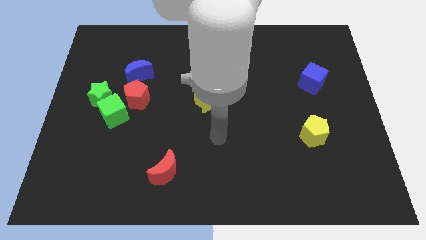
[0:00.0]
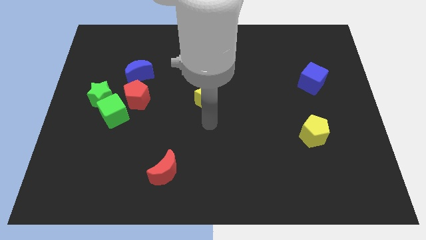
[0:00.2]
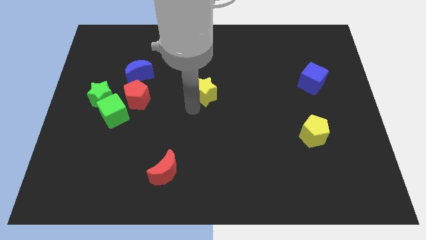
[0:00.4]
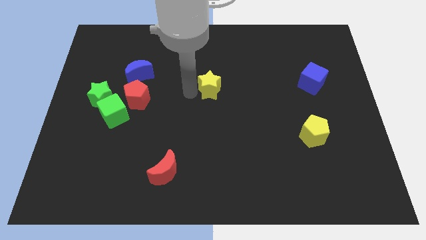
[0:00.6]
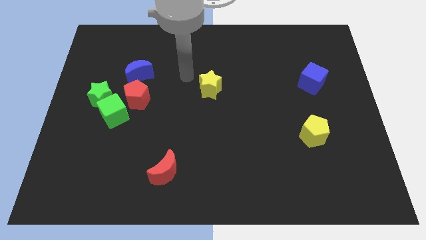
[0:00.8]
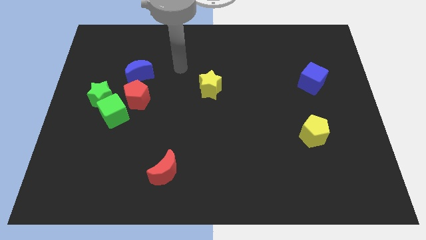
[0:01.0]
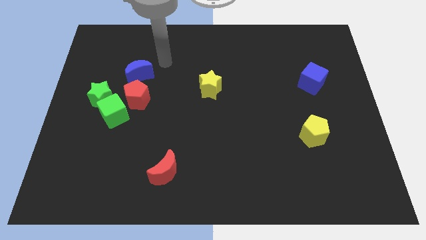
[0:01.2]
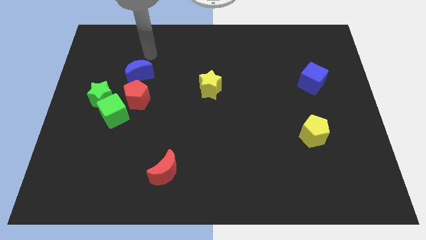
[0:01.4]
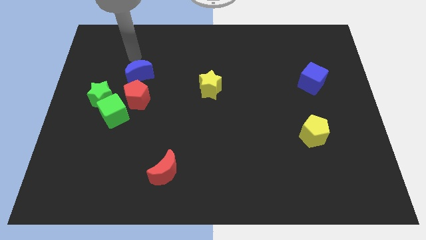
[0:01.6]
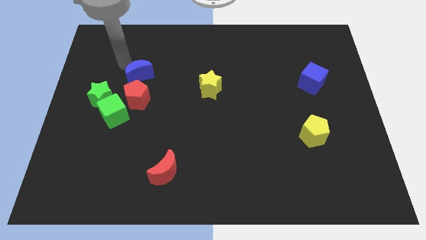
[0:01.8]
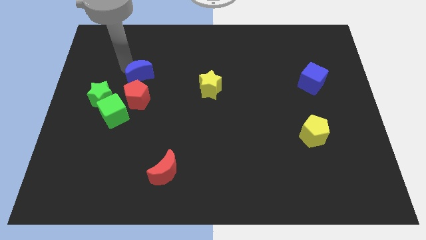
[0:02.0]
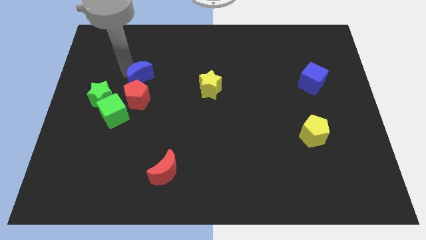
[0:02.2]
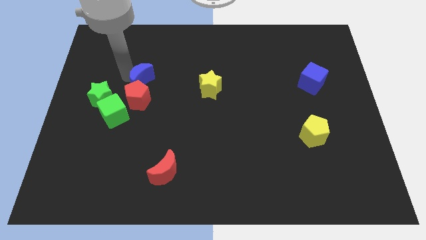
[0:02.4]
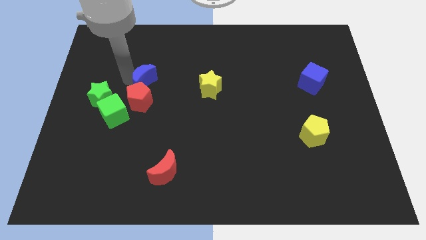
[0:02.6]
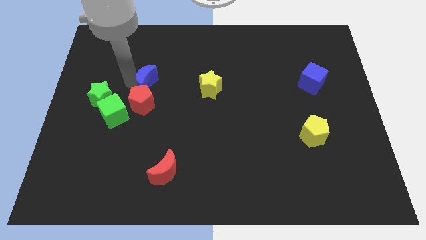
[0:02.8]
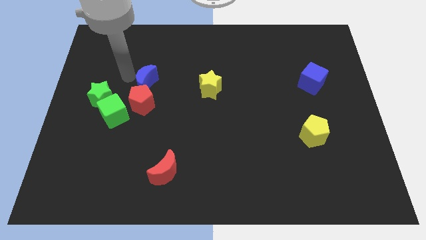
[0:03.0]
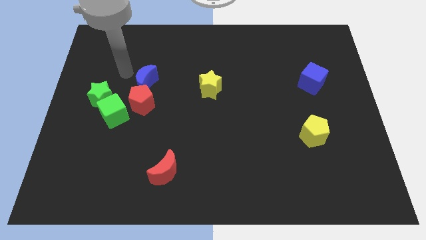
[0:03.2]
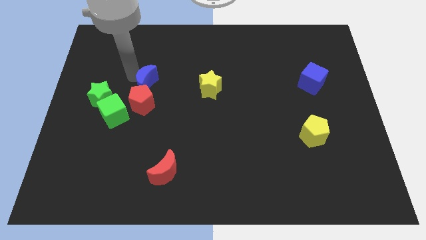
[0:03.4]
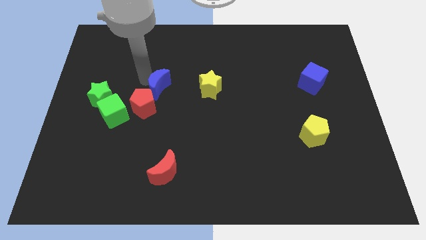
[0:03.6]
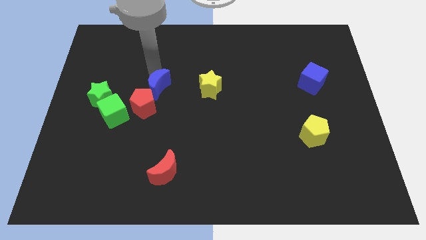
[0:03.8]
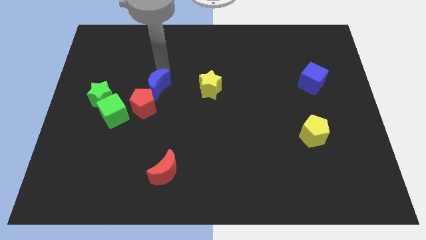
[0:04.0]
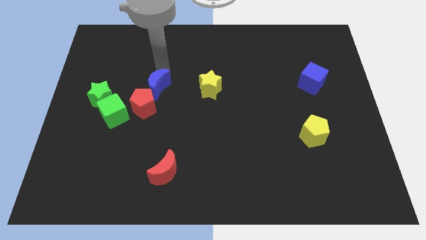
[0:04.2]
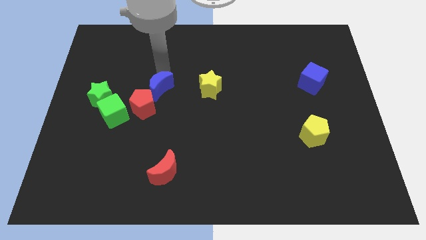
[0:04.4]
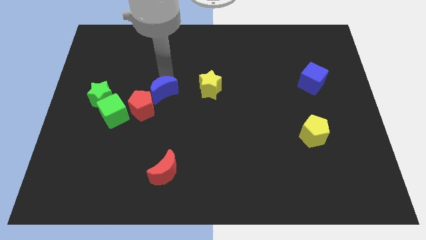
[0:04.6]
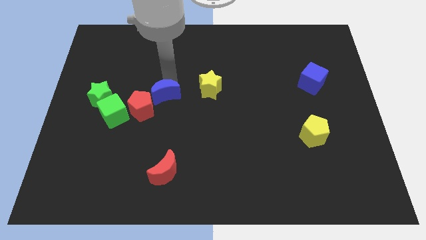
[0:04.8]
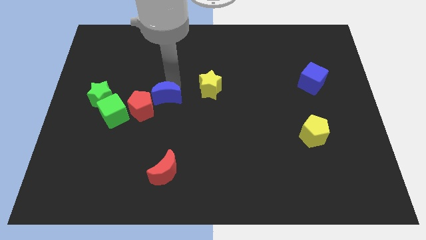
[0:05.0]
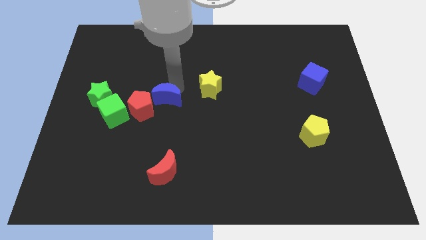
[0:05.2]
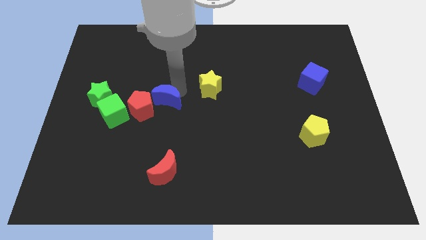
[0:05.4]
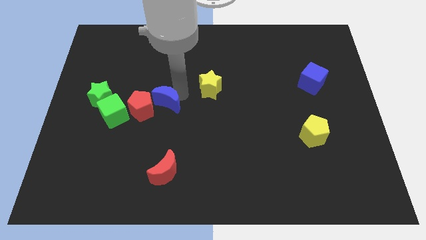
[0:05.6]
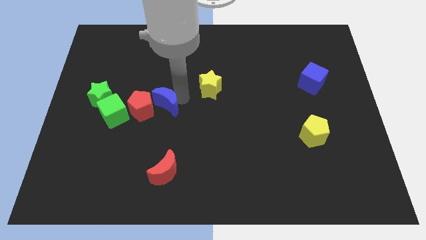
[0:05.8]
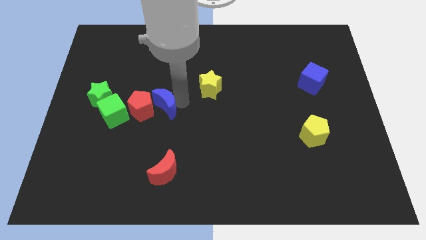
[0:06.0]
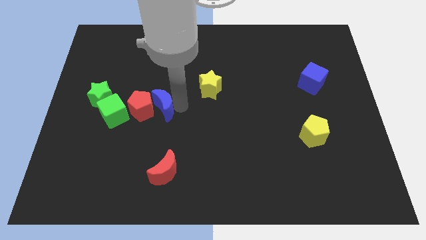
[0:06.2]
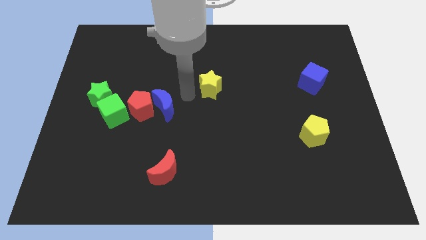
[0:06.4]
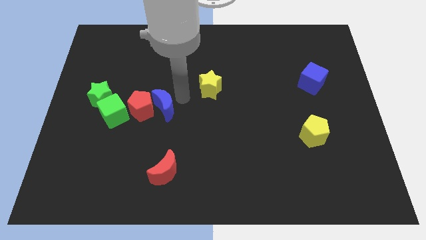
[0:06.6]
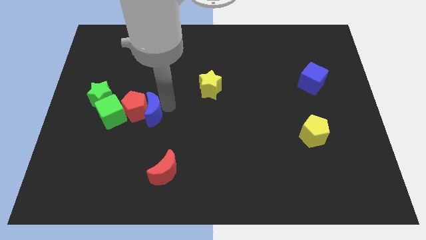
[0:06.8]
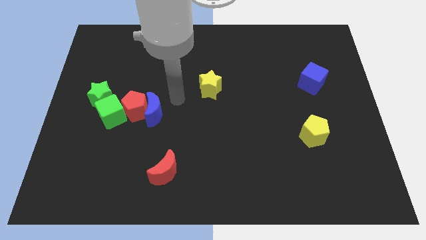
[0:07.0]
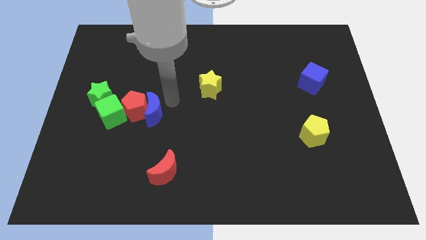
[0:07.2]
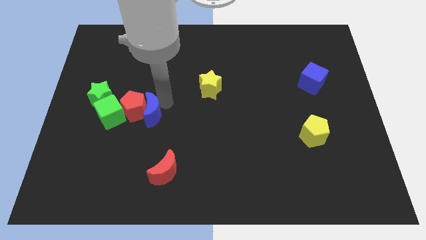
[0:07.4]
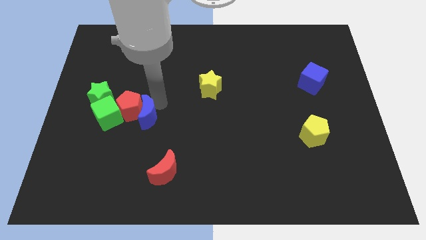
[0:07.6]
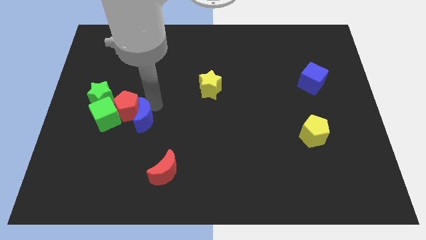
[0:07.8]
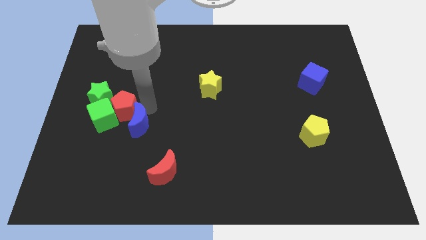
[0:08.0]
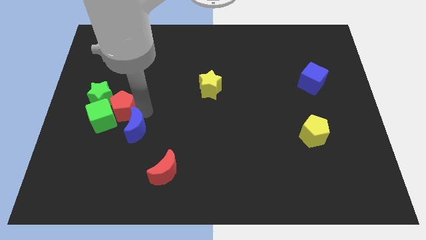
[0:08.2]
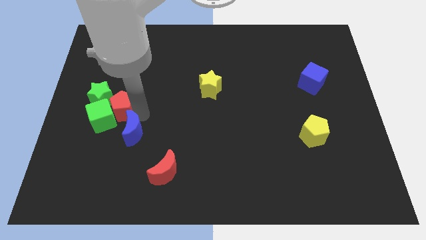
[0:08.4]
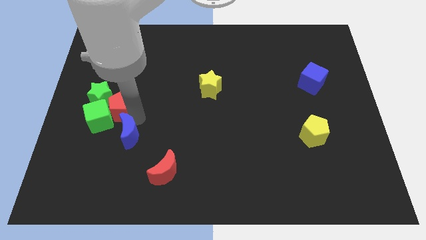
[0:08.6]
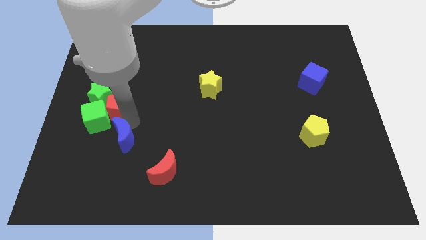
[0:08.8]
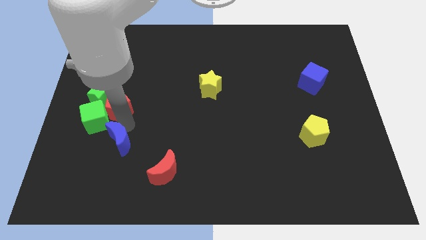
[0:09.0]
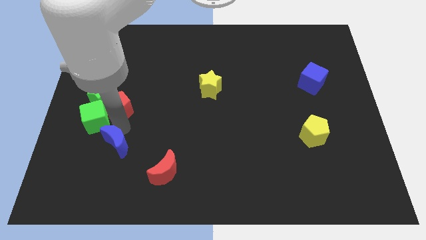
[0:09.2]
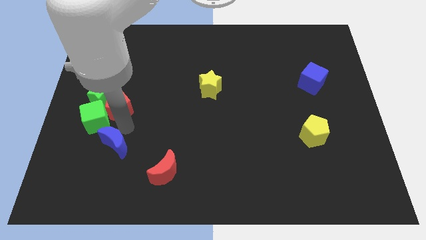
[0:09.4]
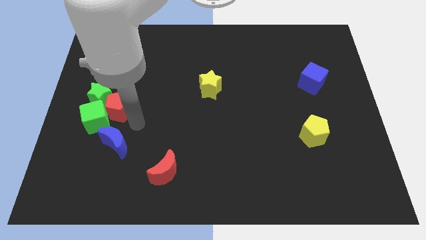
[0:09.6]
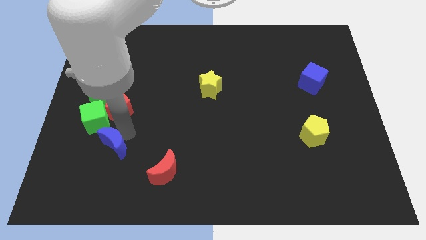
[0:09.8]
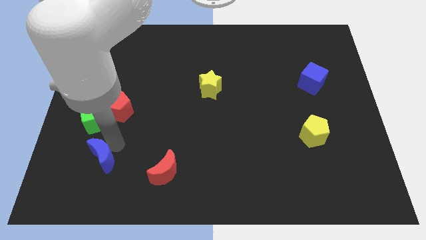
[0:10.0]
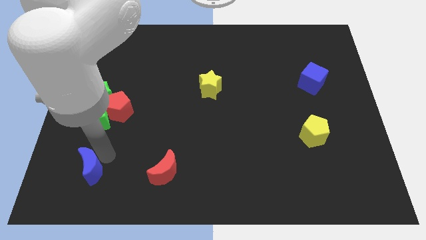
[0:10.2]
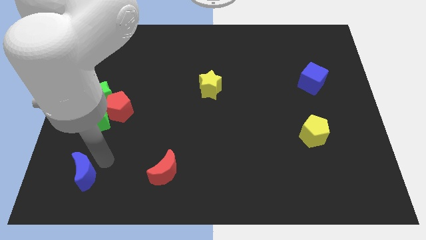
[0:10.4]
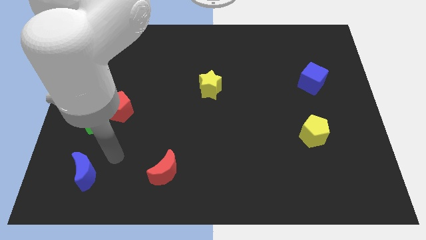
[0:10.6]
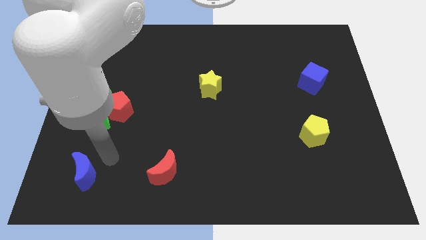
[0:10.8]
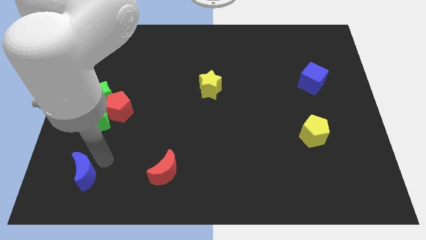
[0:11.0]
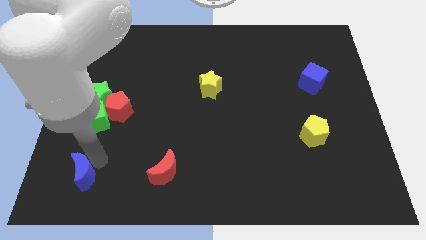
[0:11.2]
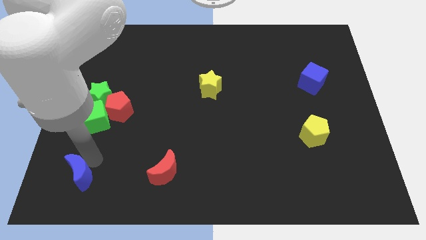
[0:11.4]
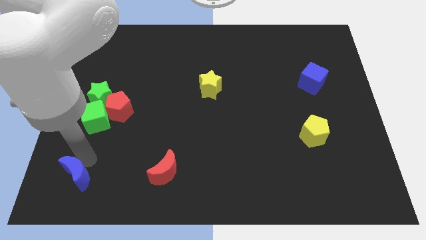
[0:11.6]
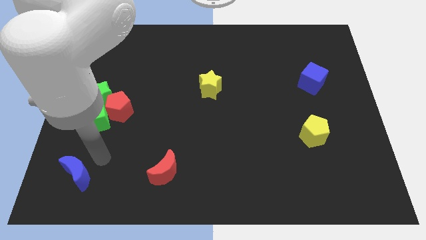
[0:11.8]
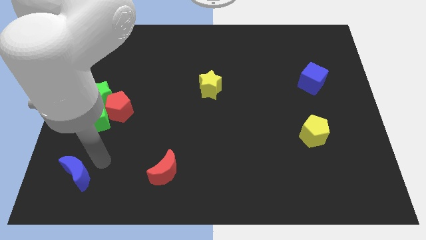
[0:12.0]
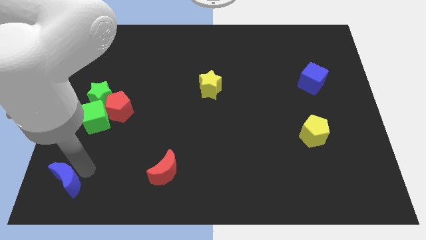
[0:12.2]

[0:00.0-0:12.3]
move the blue moon to the bottom left corner

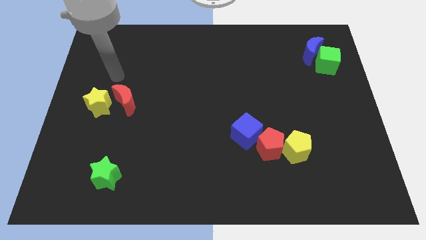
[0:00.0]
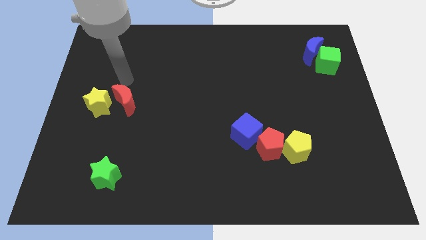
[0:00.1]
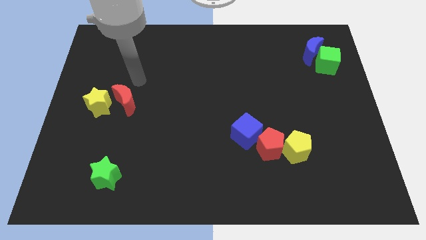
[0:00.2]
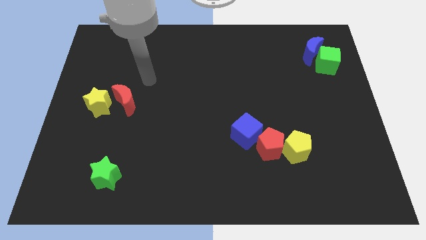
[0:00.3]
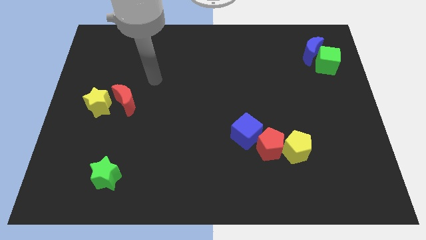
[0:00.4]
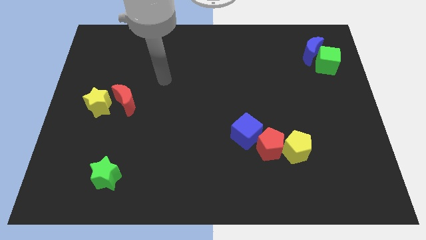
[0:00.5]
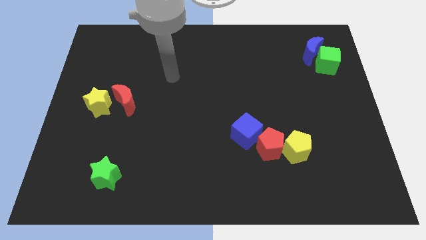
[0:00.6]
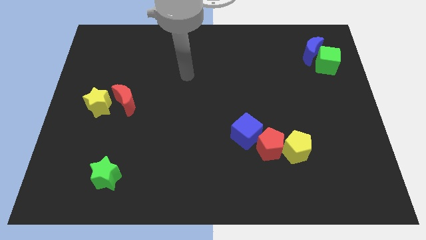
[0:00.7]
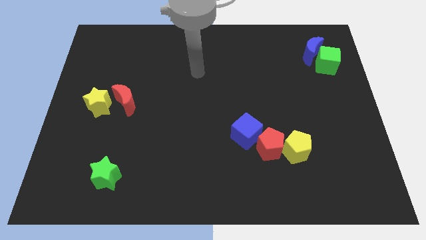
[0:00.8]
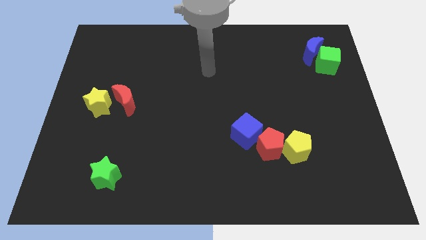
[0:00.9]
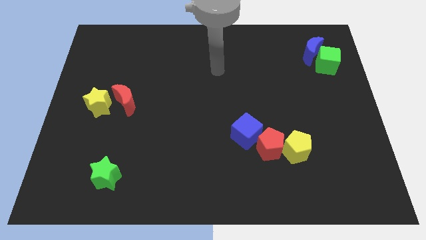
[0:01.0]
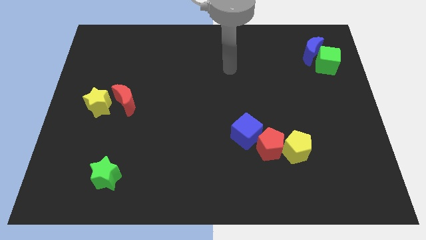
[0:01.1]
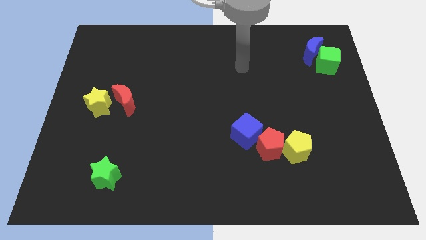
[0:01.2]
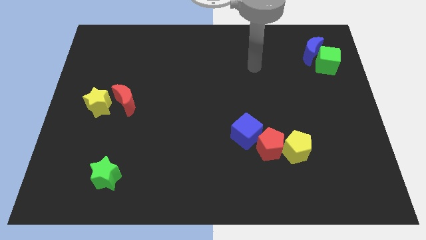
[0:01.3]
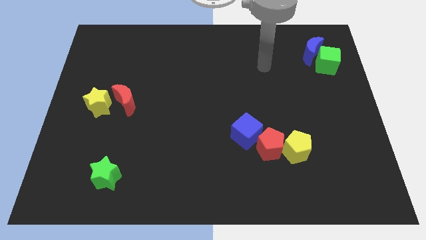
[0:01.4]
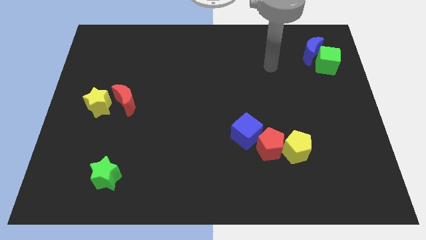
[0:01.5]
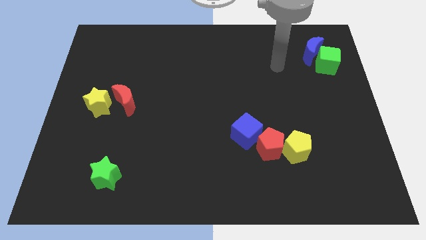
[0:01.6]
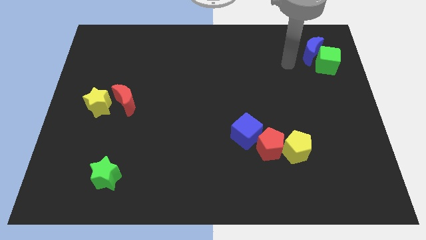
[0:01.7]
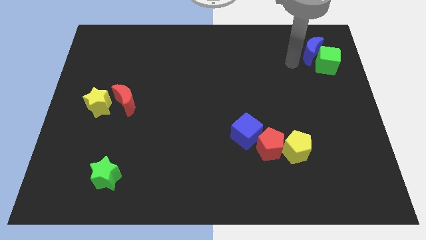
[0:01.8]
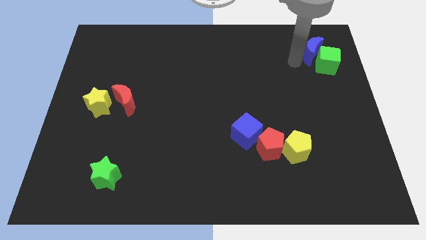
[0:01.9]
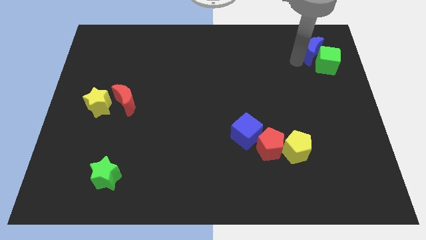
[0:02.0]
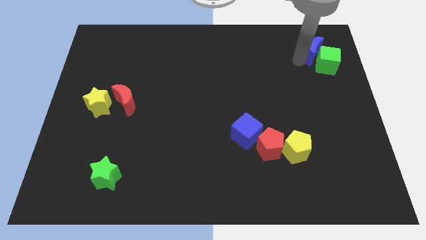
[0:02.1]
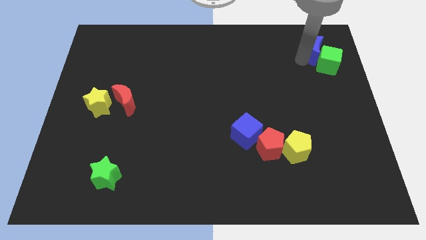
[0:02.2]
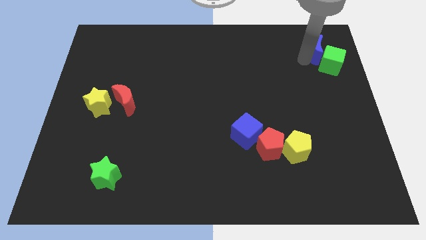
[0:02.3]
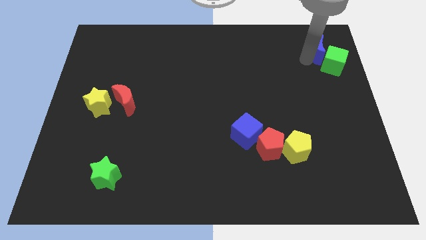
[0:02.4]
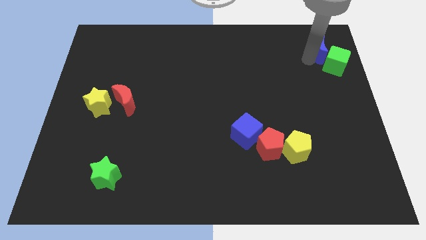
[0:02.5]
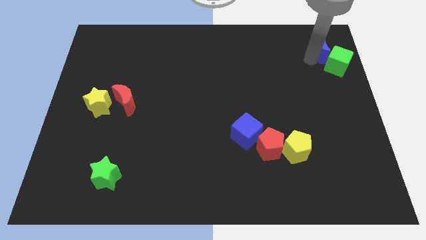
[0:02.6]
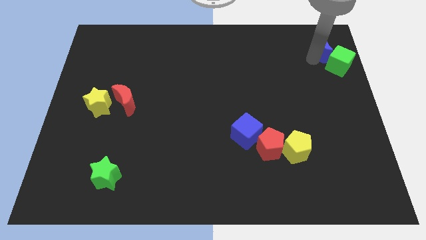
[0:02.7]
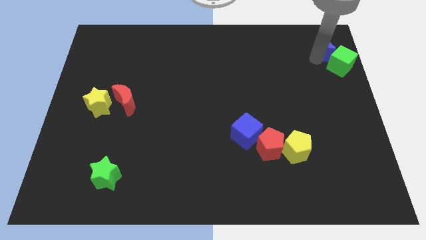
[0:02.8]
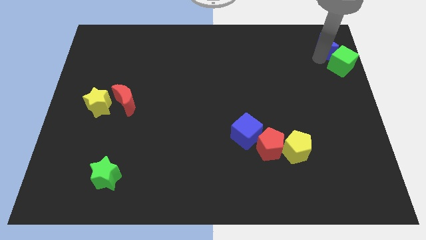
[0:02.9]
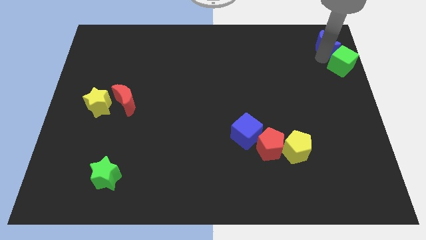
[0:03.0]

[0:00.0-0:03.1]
move the blue moon to the upper right corner
